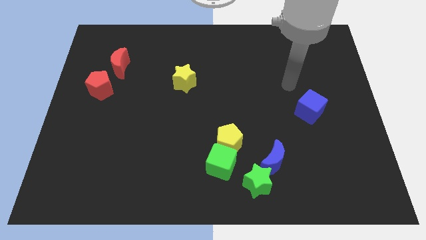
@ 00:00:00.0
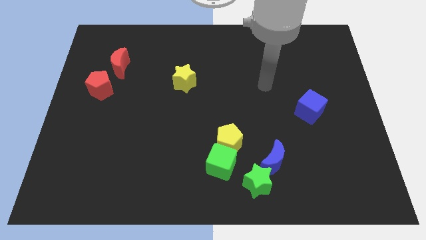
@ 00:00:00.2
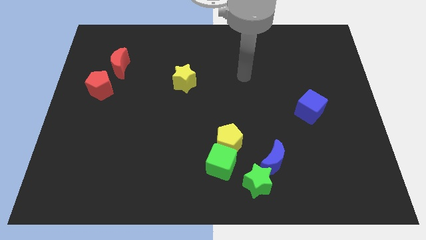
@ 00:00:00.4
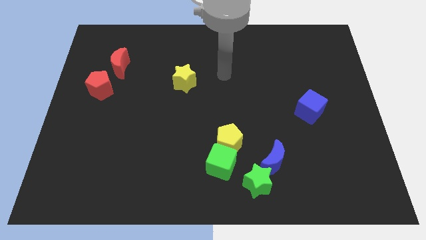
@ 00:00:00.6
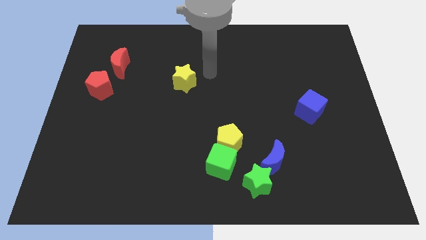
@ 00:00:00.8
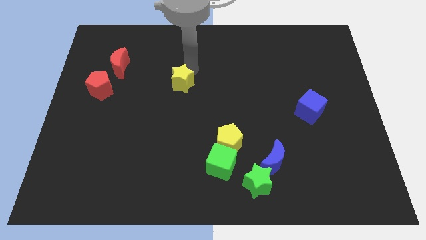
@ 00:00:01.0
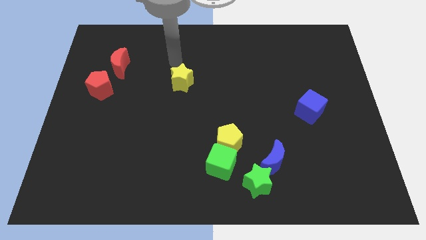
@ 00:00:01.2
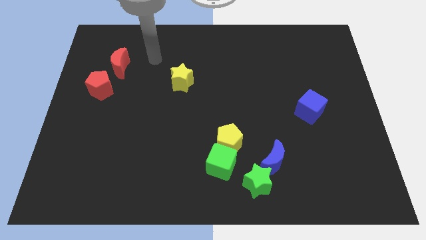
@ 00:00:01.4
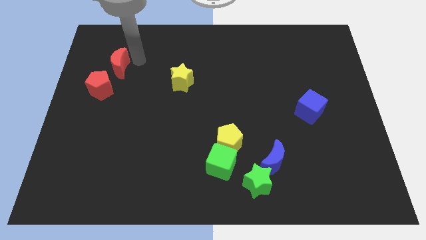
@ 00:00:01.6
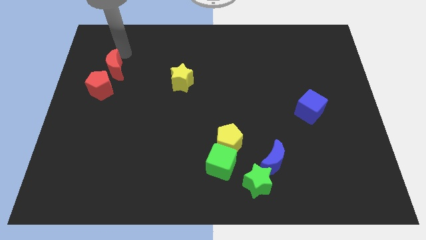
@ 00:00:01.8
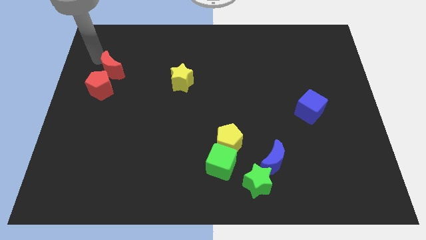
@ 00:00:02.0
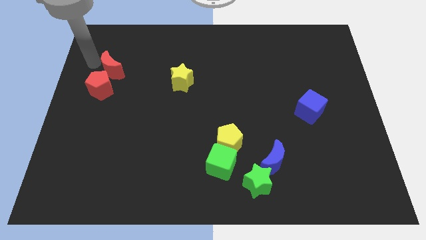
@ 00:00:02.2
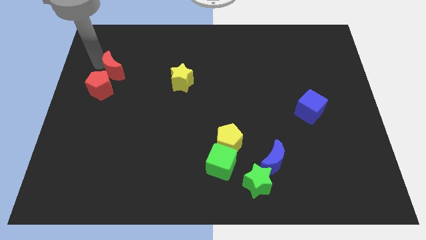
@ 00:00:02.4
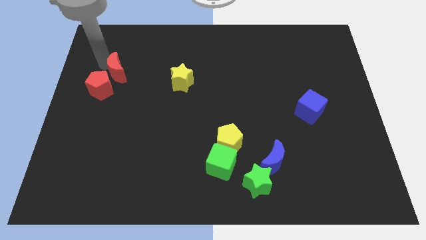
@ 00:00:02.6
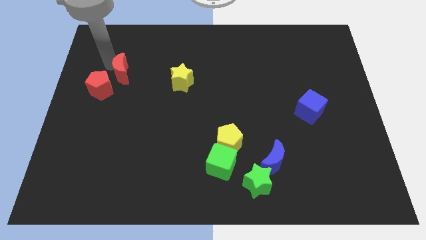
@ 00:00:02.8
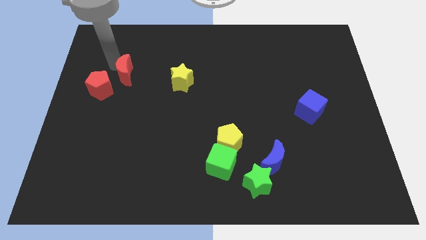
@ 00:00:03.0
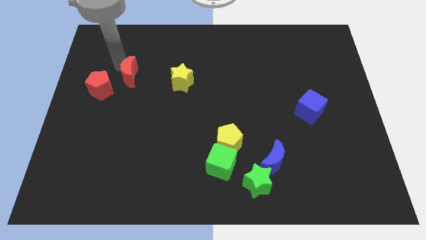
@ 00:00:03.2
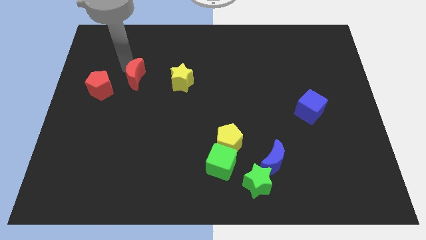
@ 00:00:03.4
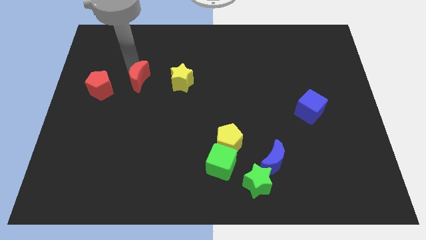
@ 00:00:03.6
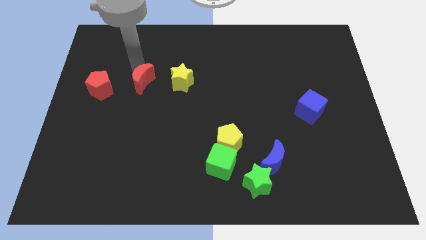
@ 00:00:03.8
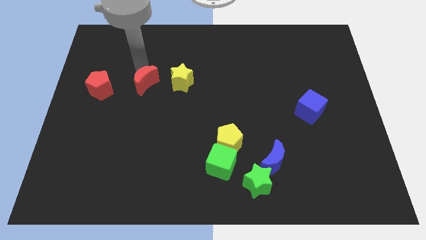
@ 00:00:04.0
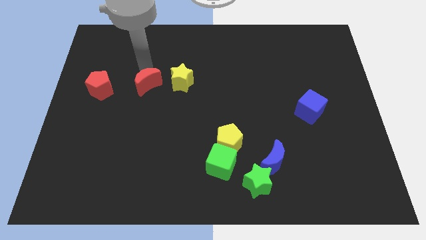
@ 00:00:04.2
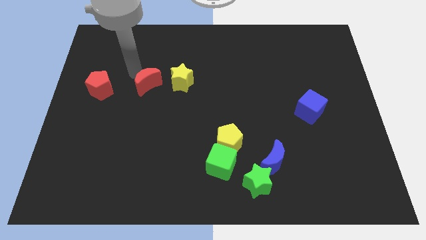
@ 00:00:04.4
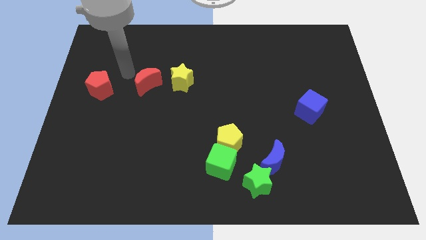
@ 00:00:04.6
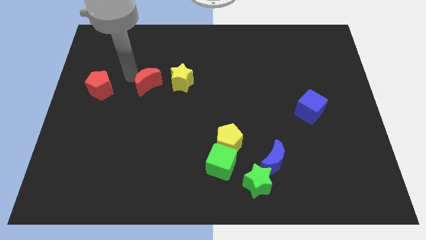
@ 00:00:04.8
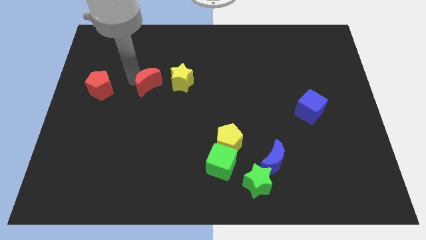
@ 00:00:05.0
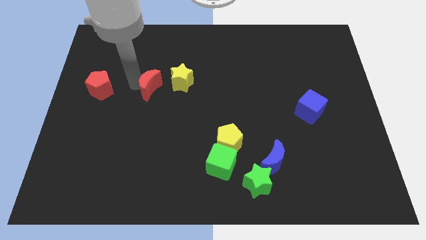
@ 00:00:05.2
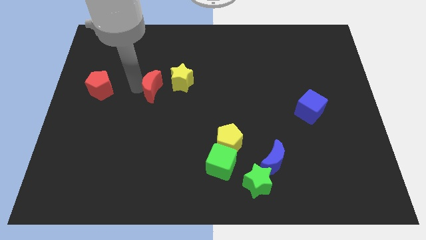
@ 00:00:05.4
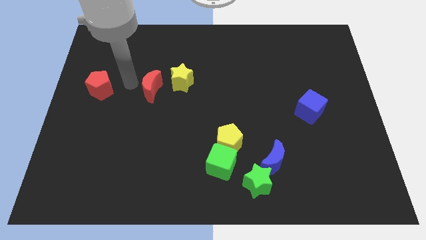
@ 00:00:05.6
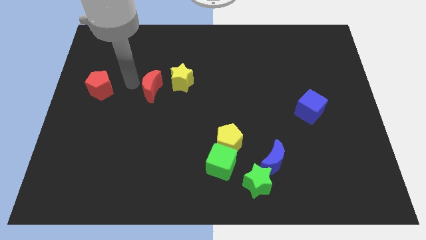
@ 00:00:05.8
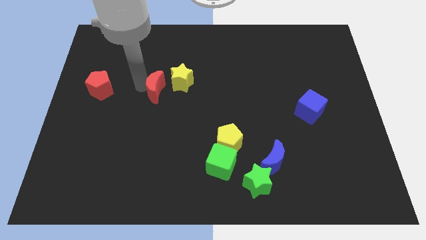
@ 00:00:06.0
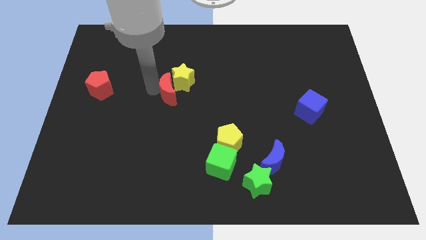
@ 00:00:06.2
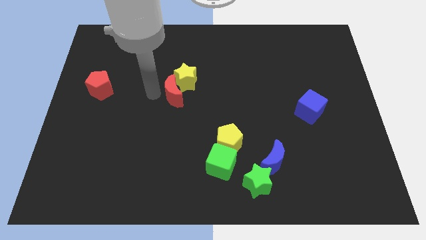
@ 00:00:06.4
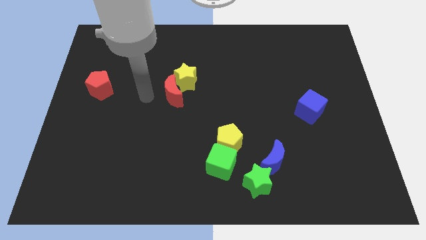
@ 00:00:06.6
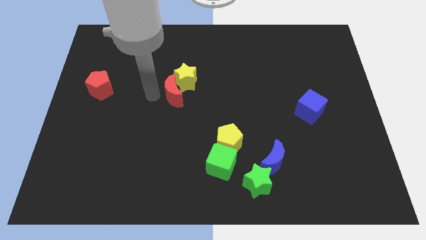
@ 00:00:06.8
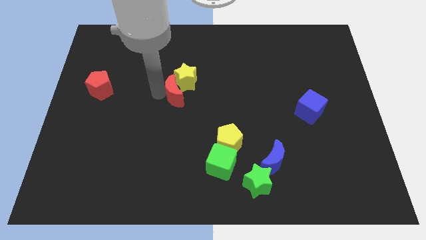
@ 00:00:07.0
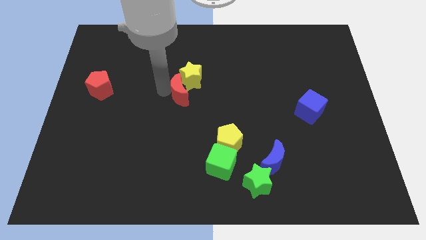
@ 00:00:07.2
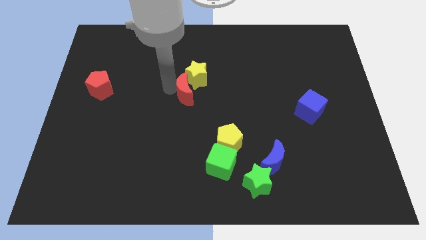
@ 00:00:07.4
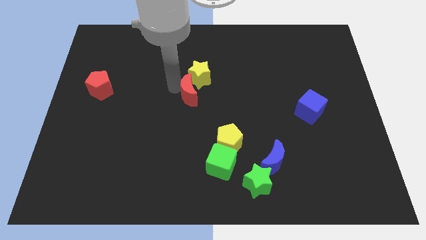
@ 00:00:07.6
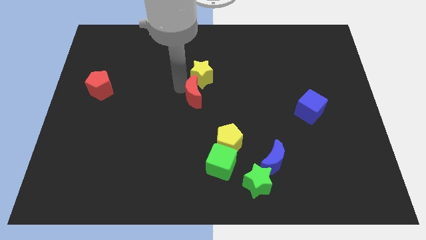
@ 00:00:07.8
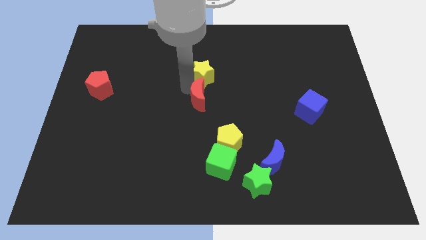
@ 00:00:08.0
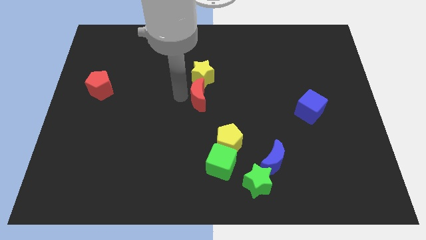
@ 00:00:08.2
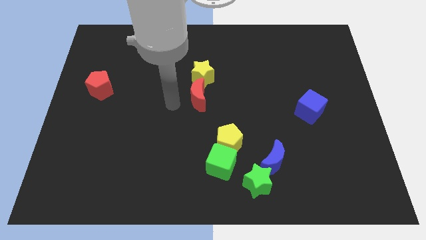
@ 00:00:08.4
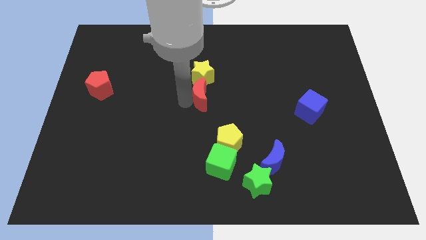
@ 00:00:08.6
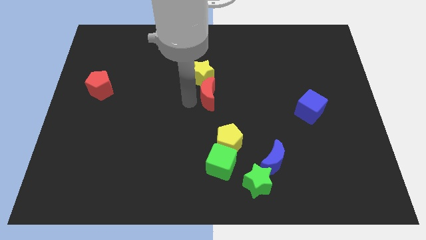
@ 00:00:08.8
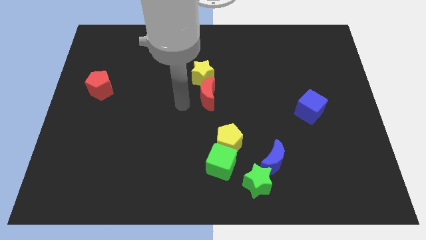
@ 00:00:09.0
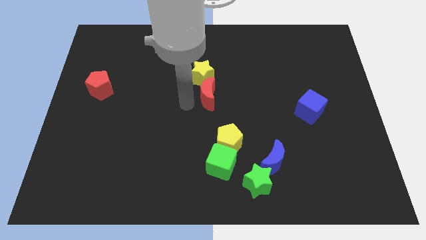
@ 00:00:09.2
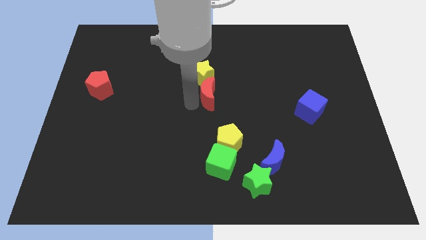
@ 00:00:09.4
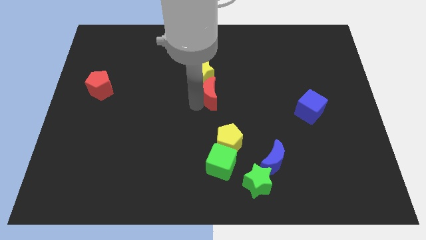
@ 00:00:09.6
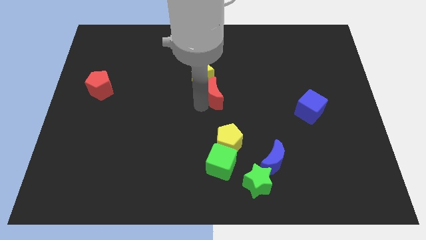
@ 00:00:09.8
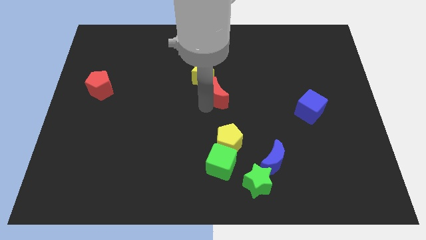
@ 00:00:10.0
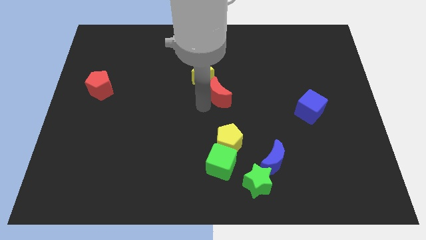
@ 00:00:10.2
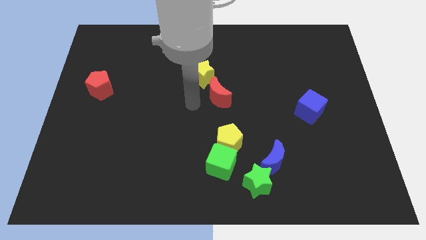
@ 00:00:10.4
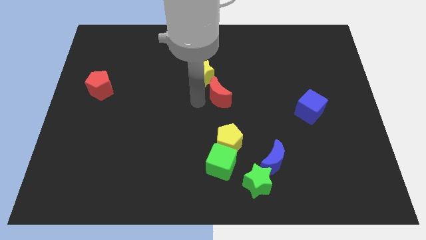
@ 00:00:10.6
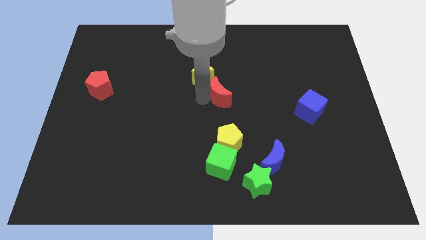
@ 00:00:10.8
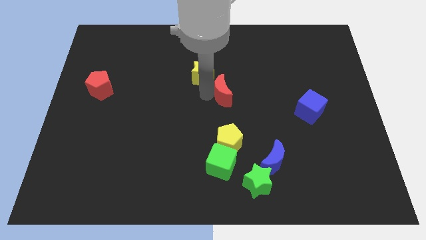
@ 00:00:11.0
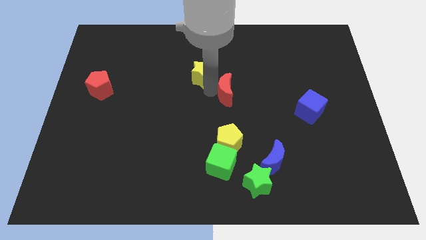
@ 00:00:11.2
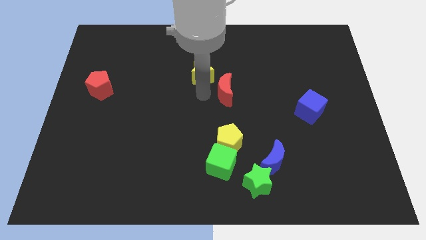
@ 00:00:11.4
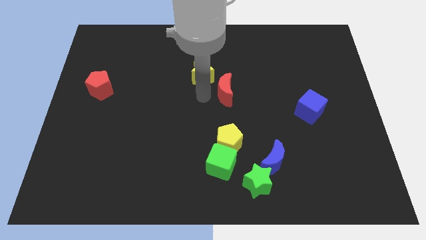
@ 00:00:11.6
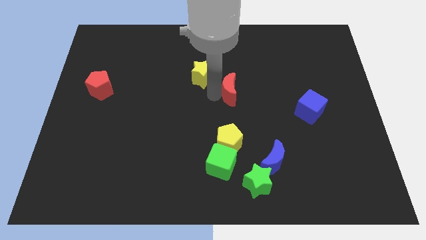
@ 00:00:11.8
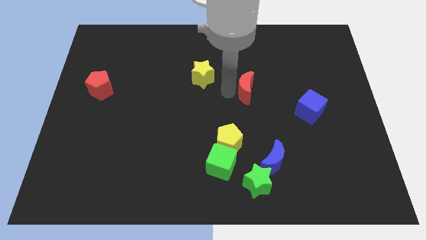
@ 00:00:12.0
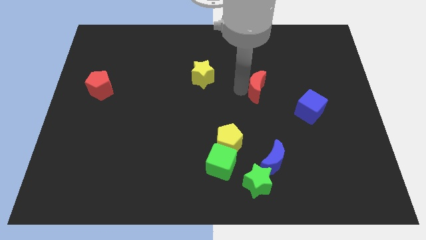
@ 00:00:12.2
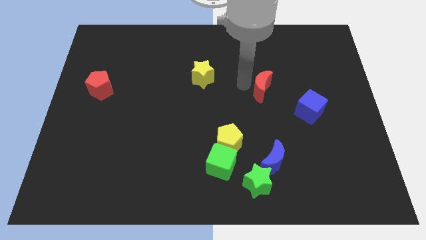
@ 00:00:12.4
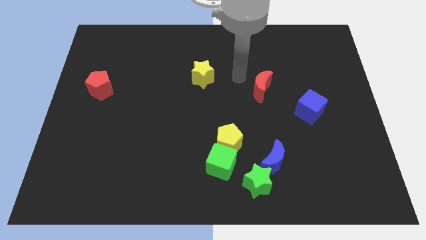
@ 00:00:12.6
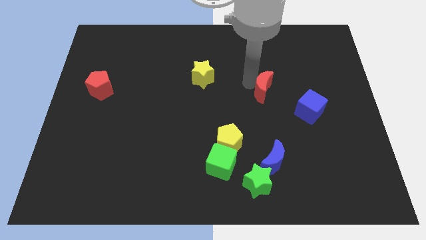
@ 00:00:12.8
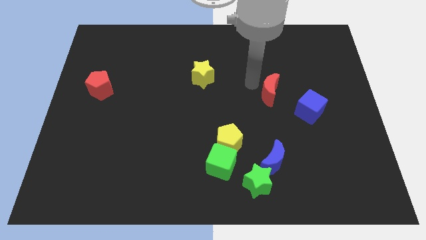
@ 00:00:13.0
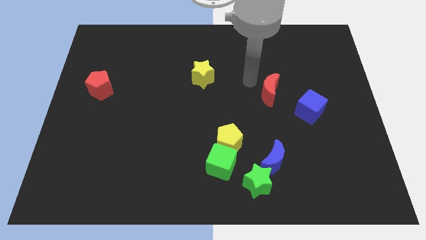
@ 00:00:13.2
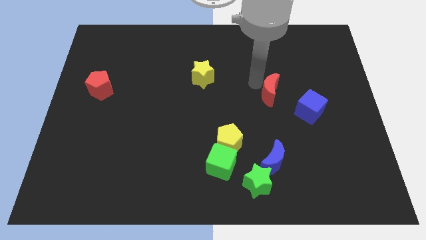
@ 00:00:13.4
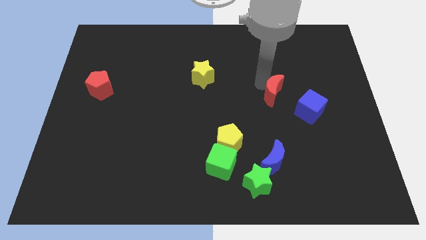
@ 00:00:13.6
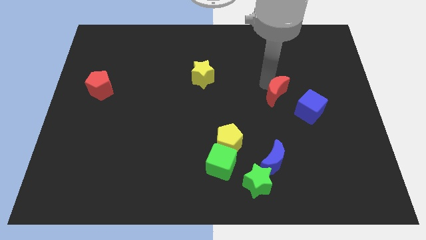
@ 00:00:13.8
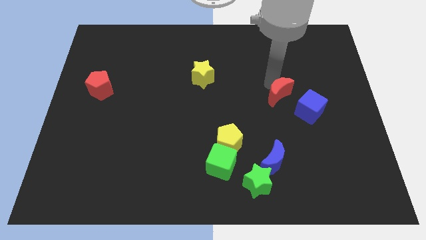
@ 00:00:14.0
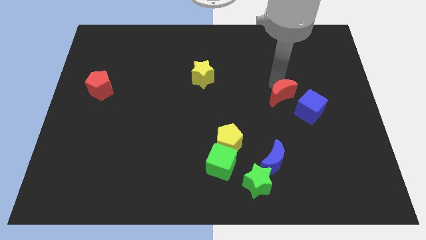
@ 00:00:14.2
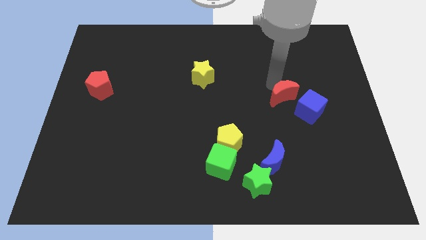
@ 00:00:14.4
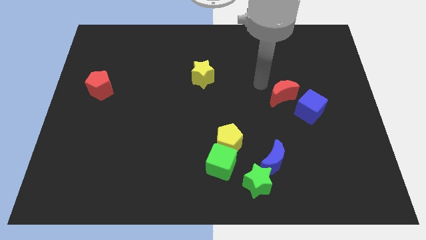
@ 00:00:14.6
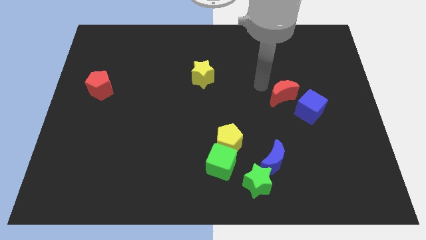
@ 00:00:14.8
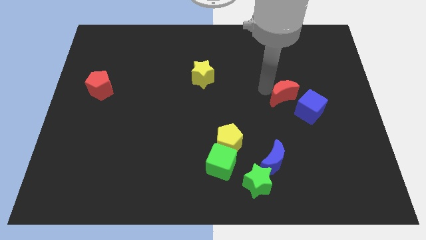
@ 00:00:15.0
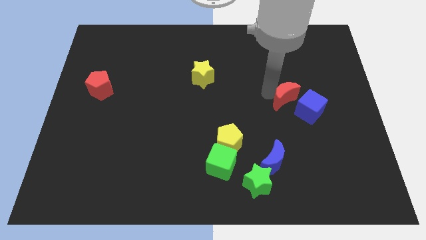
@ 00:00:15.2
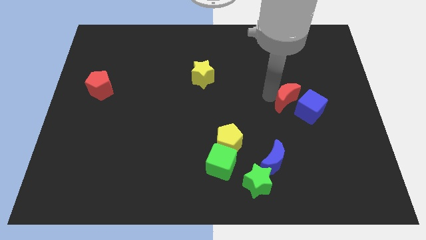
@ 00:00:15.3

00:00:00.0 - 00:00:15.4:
slide the red moon to the blue cube

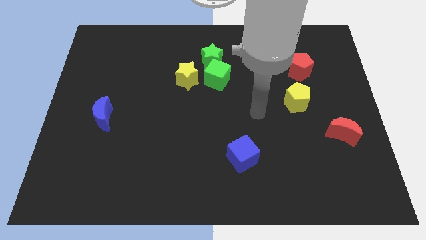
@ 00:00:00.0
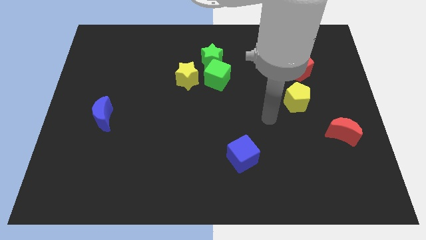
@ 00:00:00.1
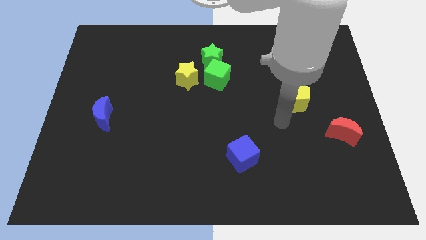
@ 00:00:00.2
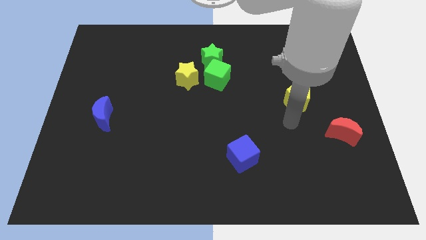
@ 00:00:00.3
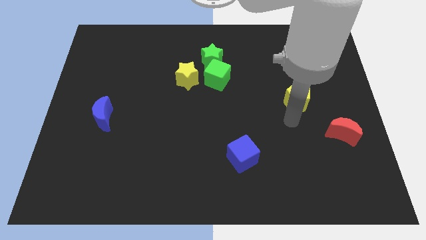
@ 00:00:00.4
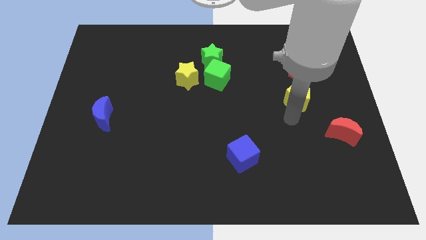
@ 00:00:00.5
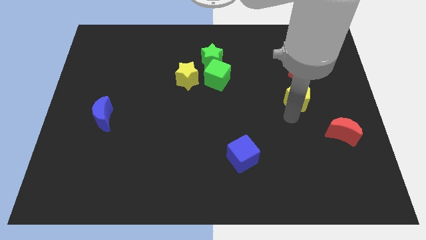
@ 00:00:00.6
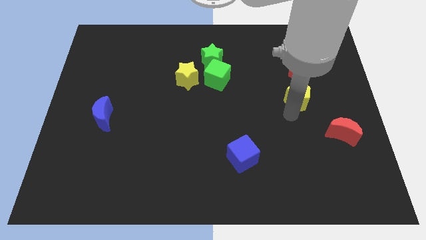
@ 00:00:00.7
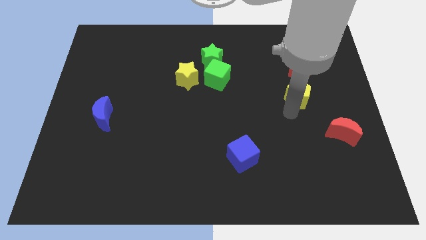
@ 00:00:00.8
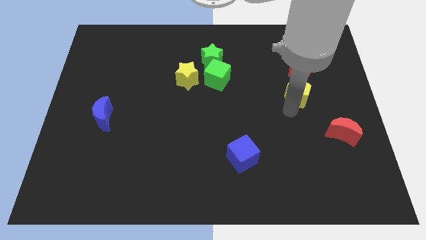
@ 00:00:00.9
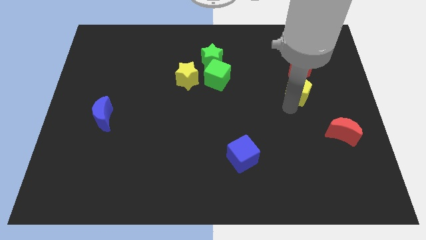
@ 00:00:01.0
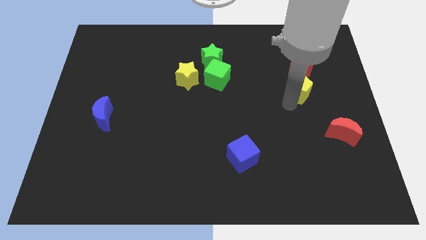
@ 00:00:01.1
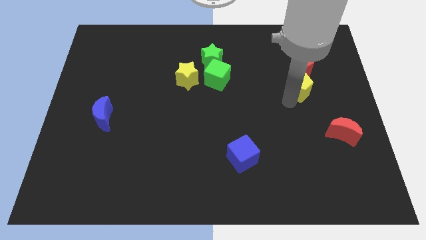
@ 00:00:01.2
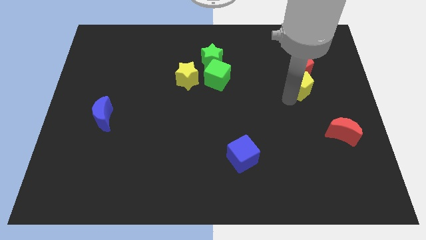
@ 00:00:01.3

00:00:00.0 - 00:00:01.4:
put the yellow pentagon towards the red pentagon
